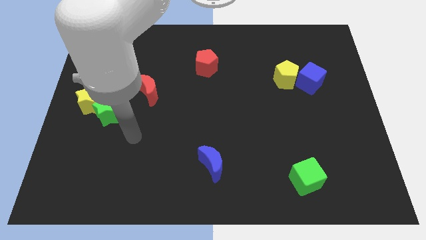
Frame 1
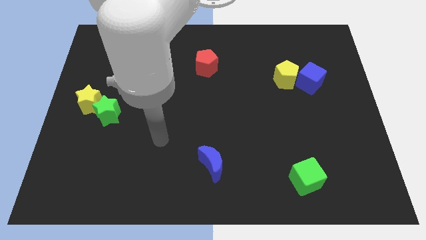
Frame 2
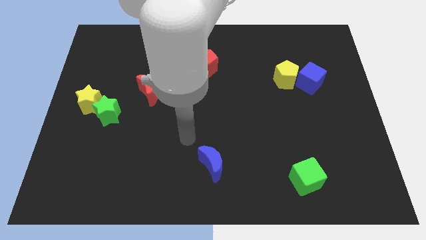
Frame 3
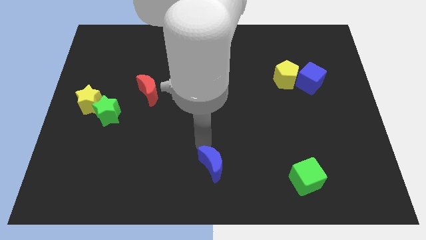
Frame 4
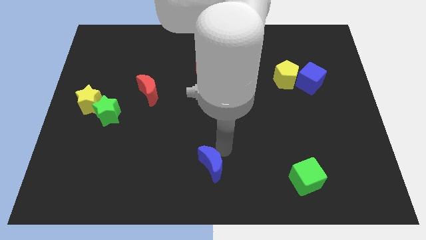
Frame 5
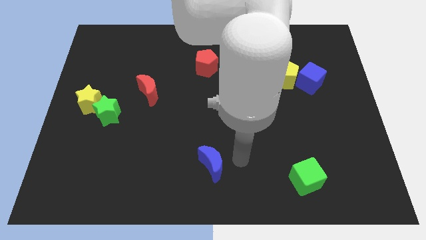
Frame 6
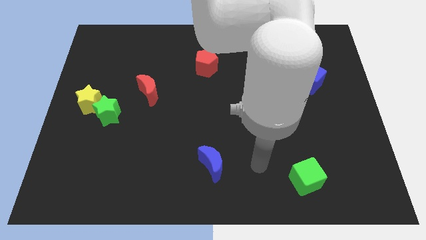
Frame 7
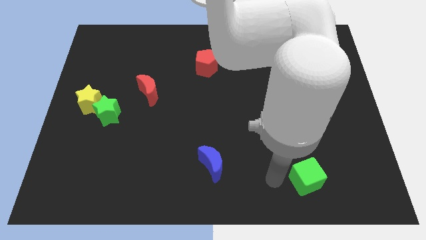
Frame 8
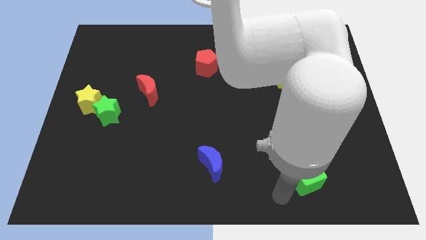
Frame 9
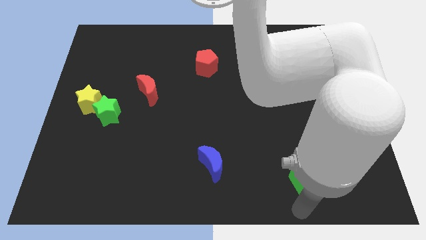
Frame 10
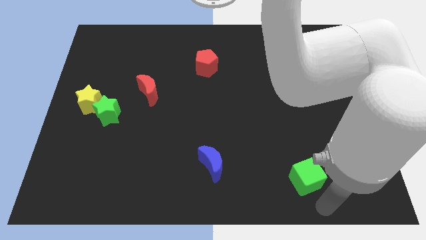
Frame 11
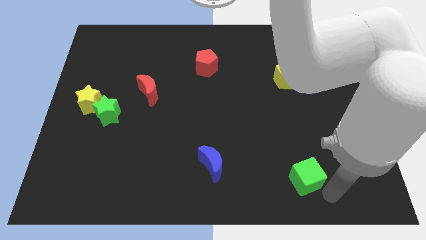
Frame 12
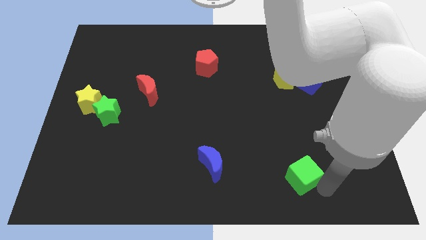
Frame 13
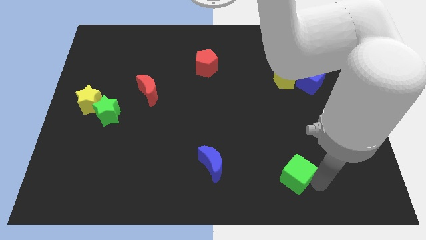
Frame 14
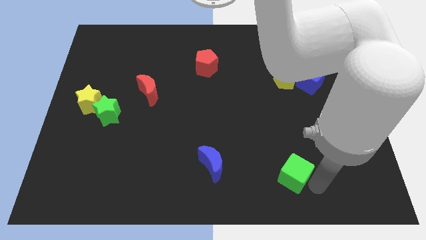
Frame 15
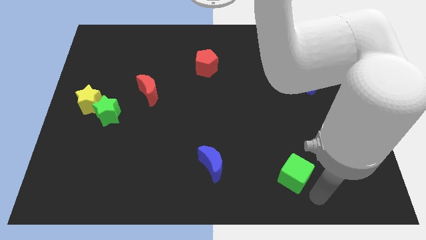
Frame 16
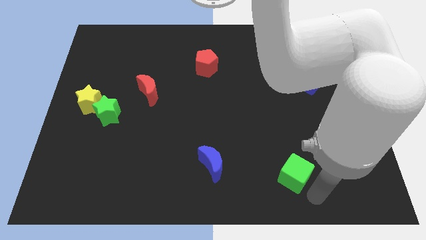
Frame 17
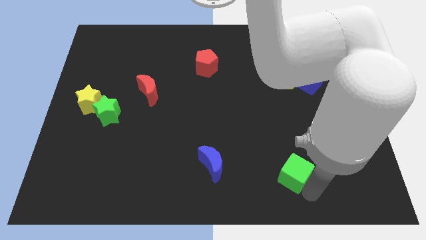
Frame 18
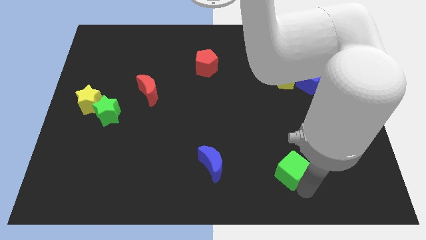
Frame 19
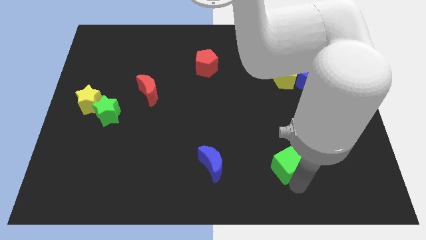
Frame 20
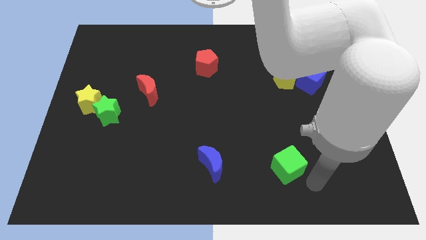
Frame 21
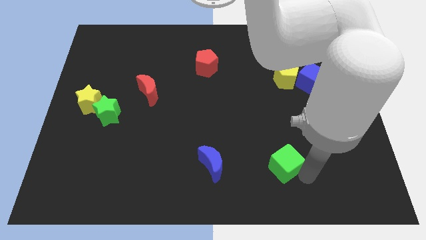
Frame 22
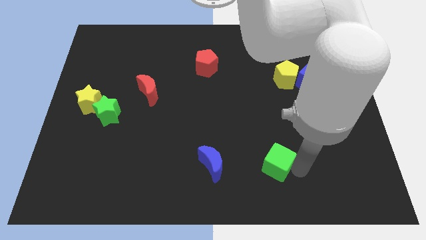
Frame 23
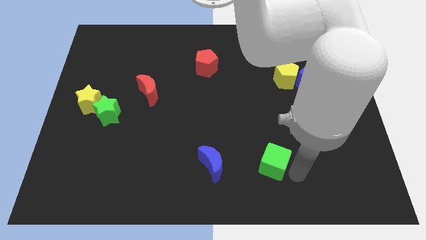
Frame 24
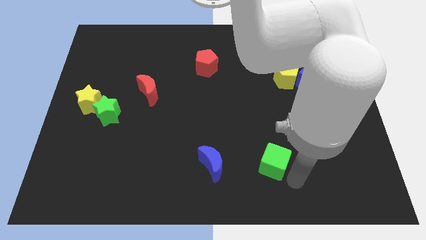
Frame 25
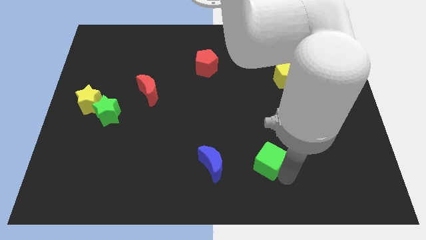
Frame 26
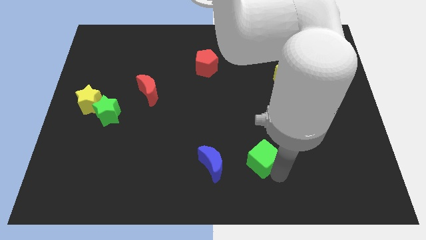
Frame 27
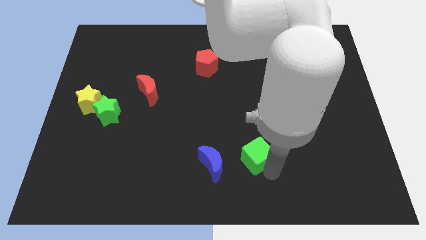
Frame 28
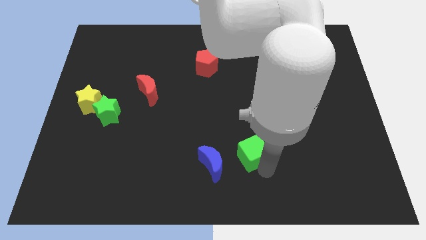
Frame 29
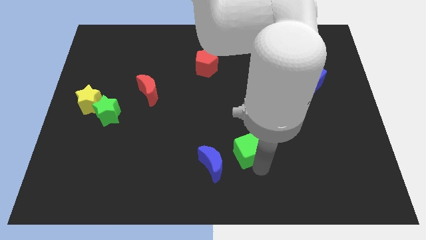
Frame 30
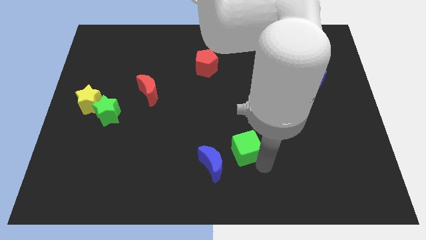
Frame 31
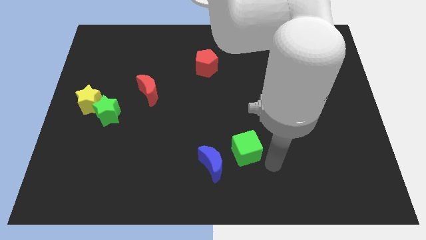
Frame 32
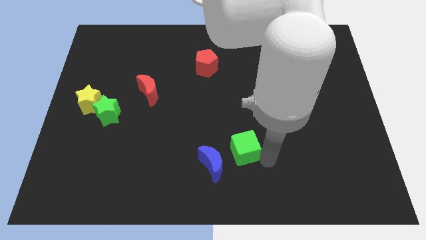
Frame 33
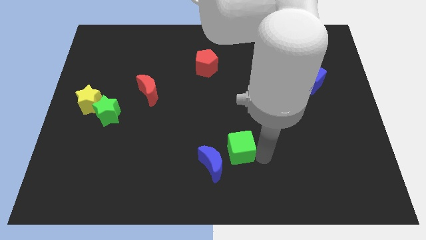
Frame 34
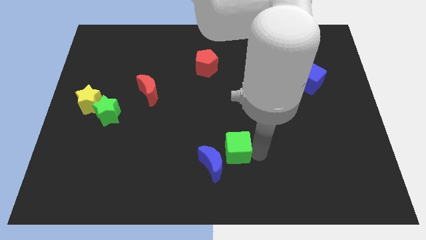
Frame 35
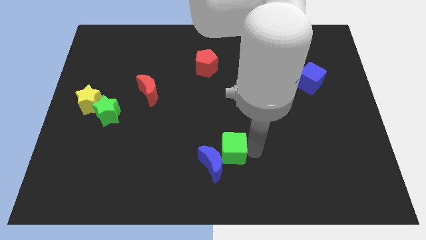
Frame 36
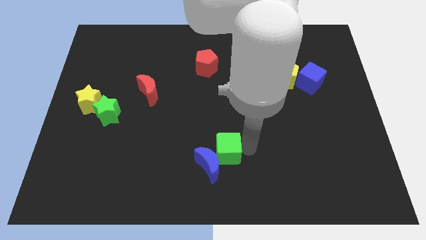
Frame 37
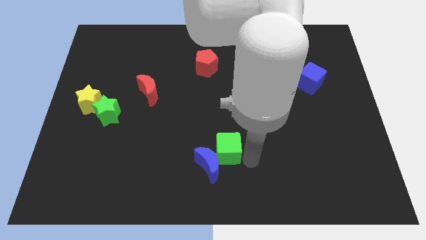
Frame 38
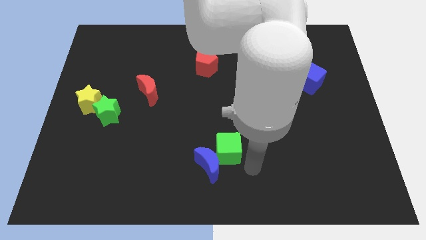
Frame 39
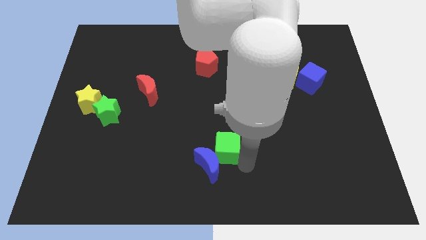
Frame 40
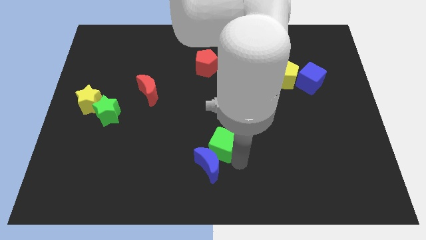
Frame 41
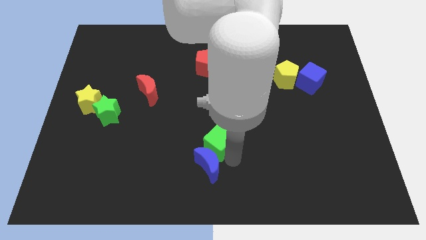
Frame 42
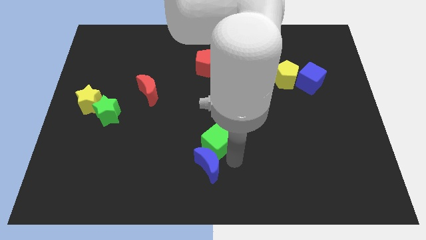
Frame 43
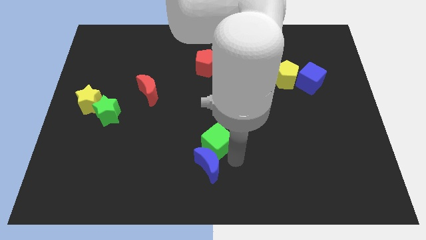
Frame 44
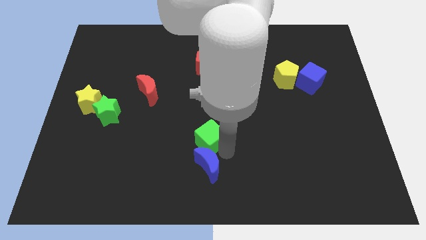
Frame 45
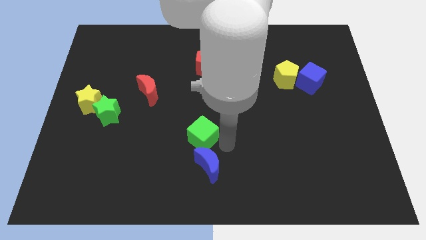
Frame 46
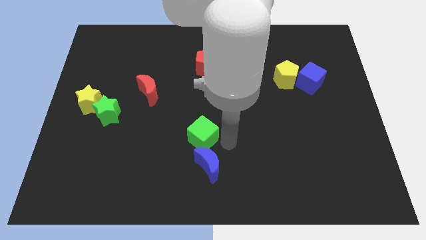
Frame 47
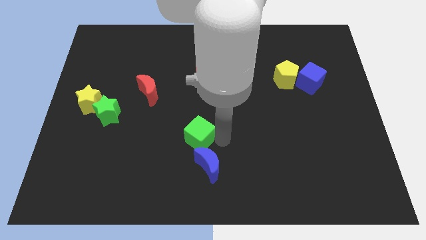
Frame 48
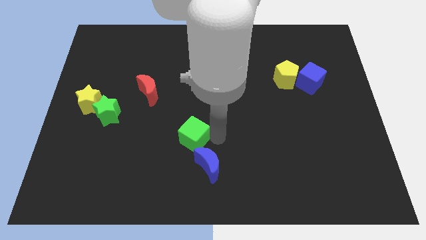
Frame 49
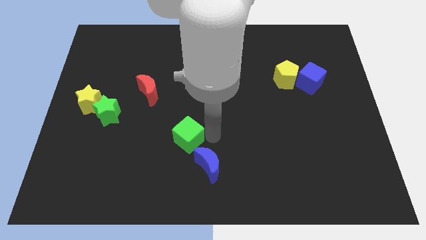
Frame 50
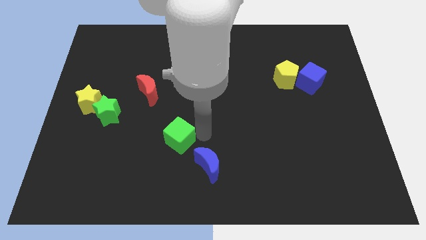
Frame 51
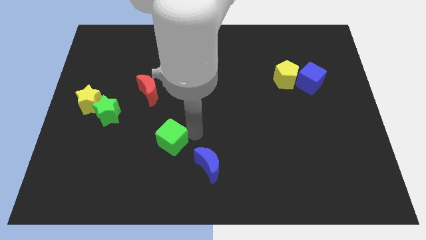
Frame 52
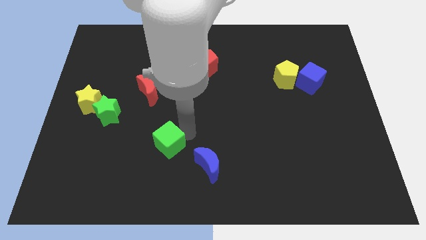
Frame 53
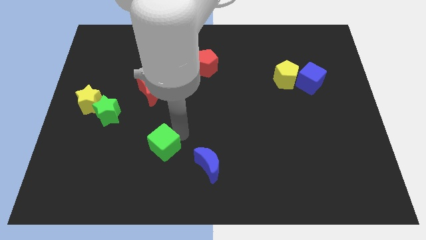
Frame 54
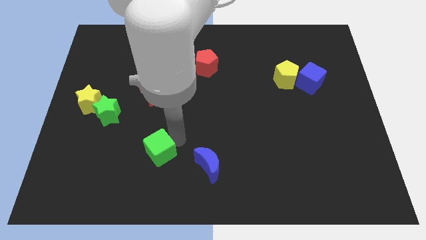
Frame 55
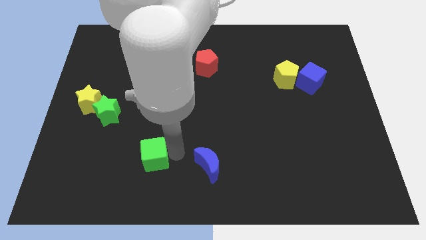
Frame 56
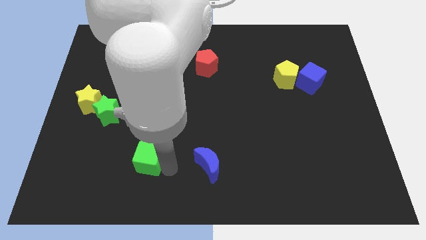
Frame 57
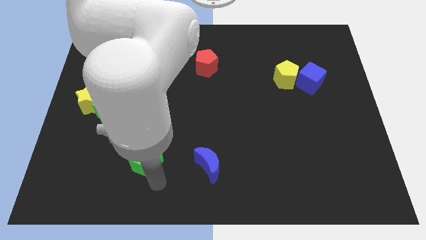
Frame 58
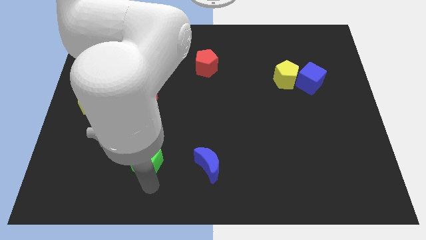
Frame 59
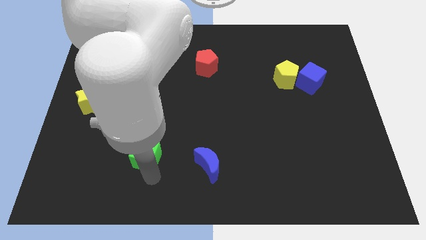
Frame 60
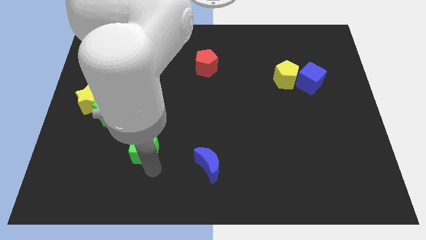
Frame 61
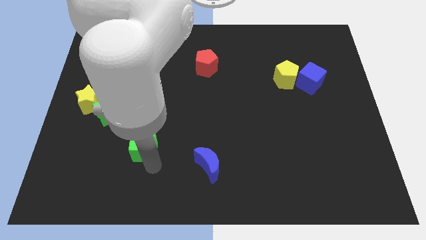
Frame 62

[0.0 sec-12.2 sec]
push the green cube to the bottom side of the red moon

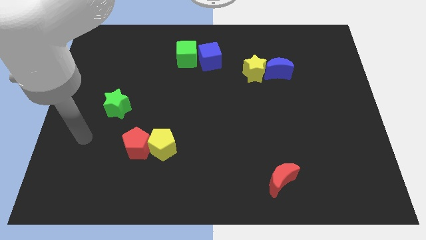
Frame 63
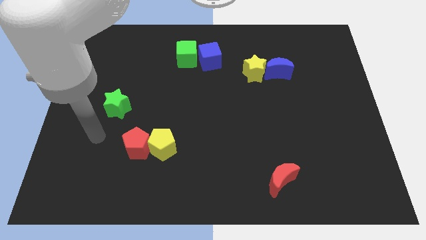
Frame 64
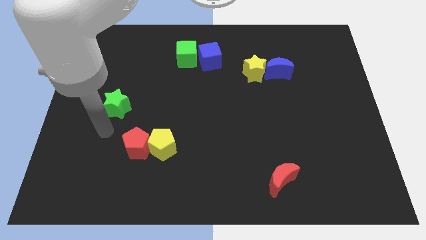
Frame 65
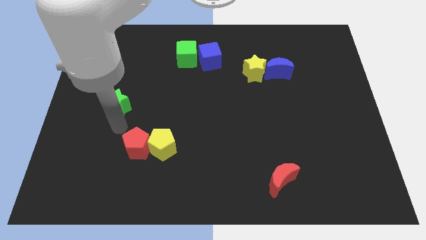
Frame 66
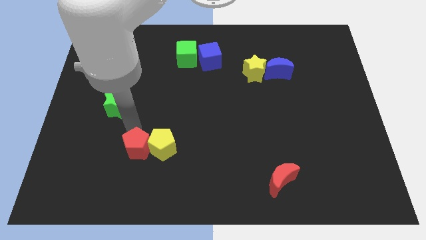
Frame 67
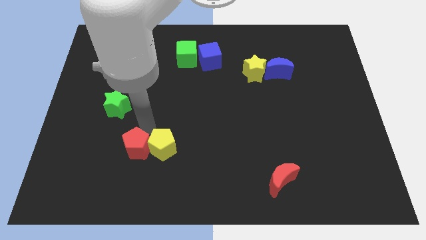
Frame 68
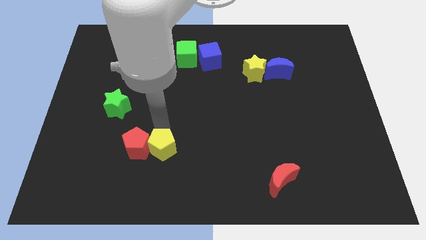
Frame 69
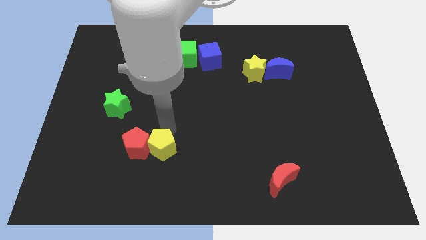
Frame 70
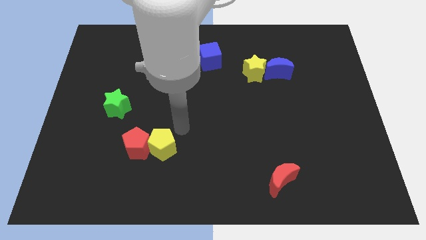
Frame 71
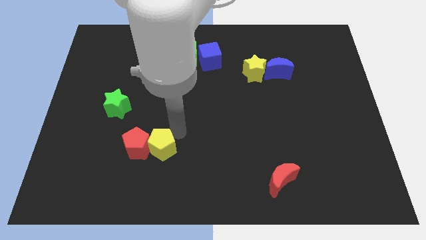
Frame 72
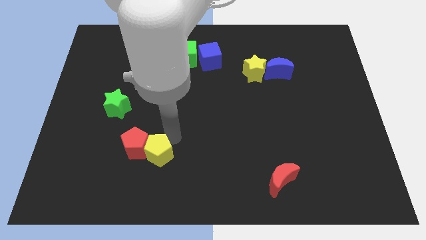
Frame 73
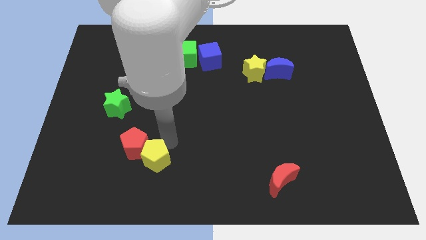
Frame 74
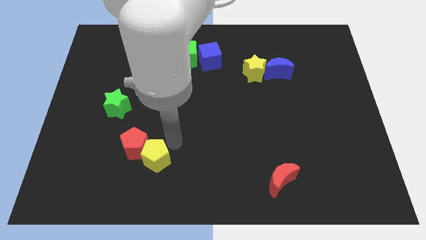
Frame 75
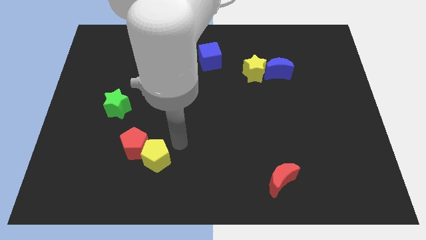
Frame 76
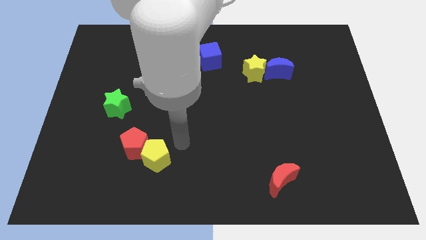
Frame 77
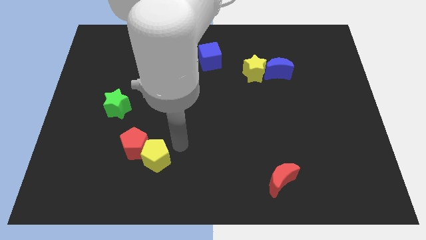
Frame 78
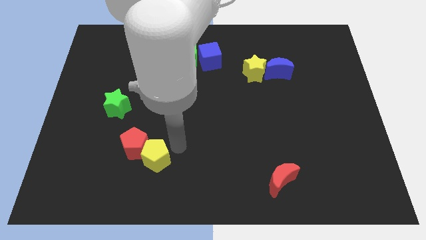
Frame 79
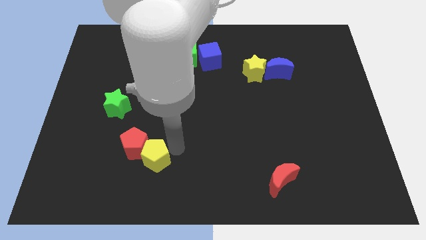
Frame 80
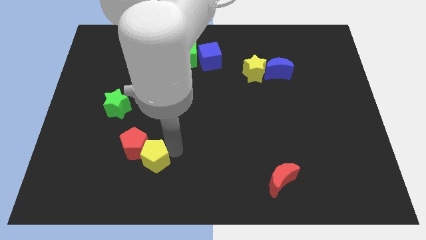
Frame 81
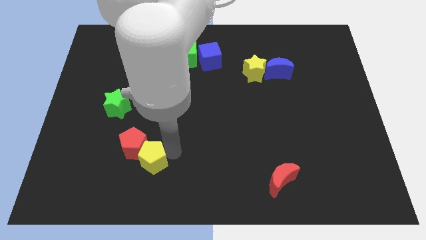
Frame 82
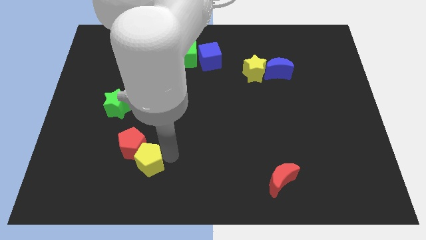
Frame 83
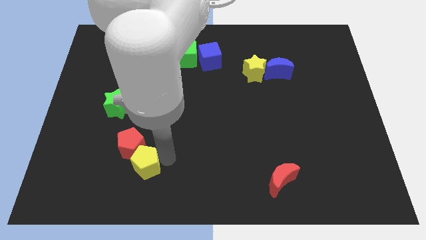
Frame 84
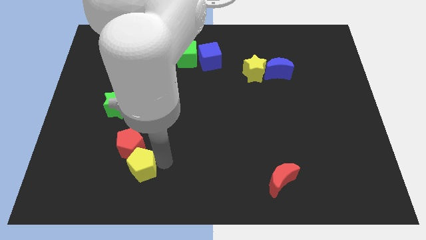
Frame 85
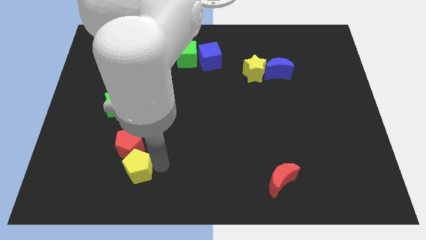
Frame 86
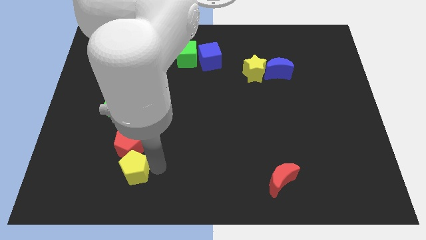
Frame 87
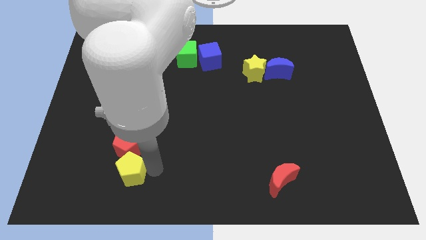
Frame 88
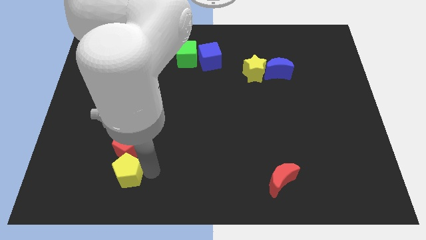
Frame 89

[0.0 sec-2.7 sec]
slide the yellow pentagon to the bottom left of the red pentagon
